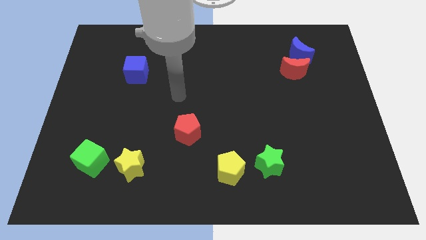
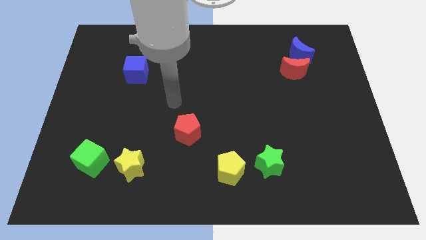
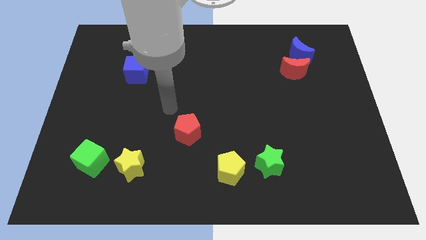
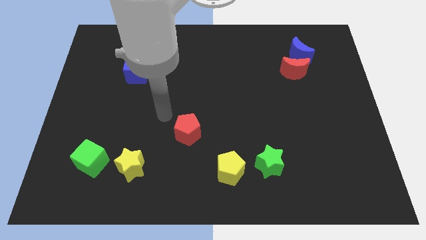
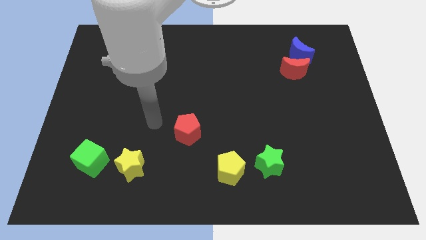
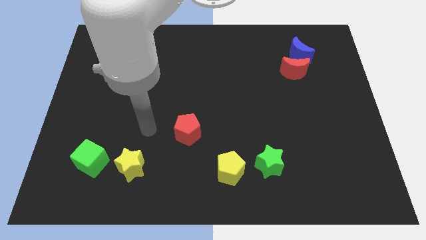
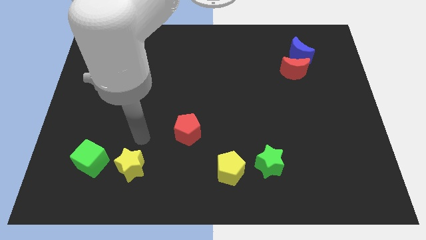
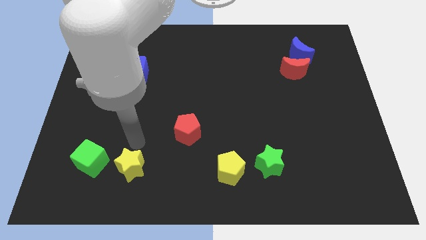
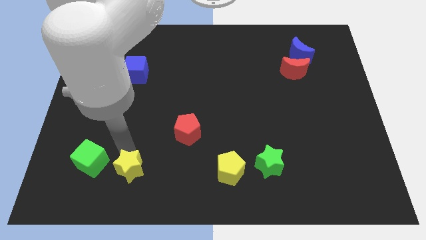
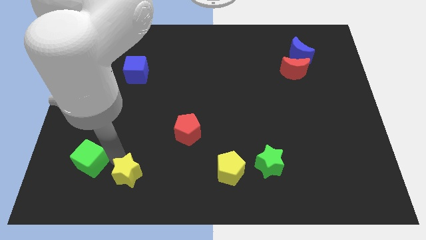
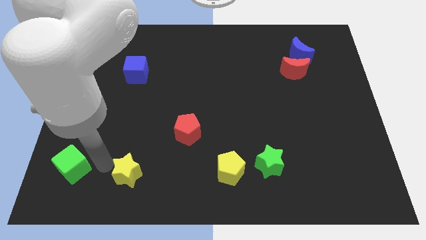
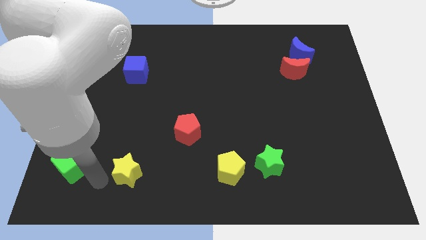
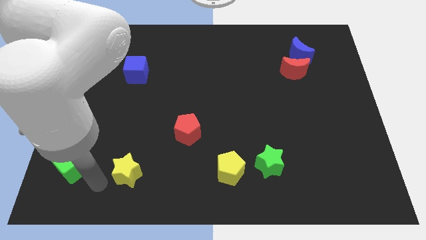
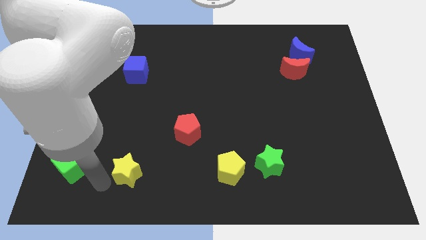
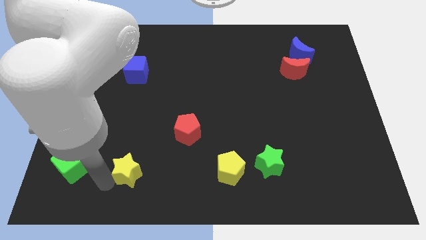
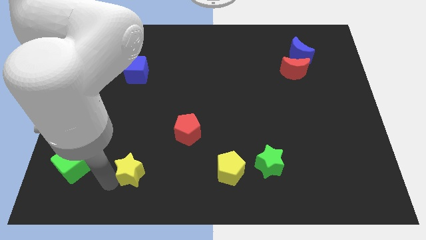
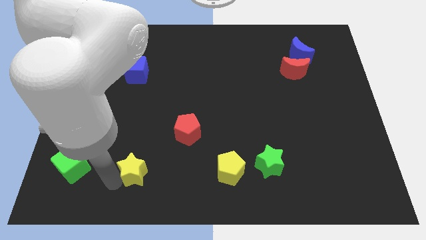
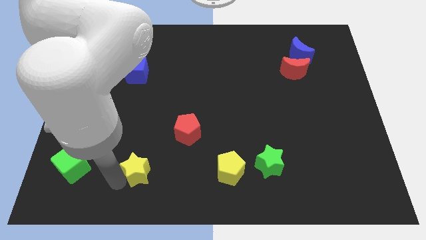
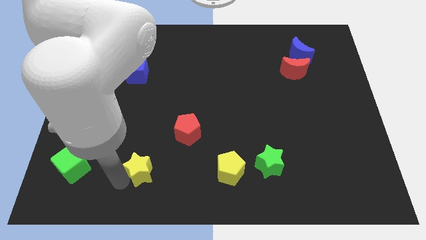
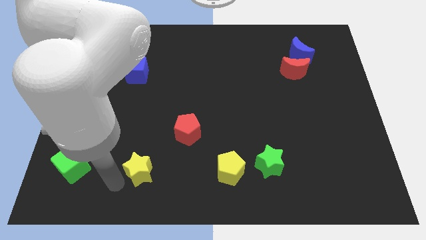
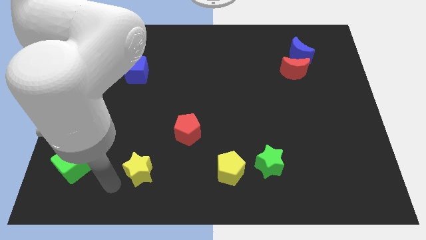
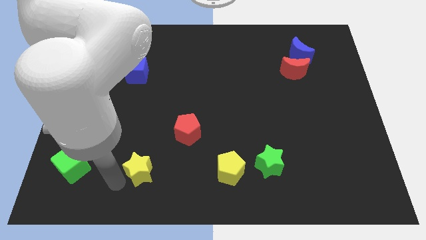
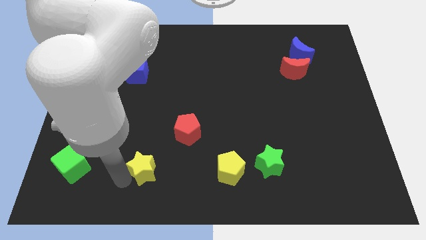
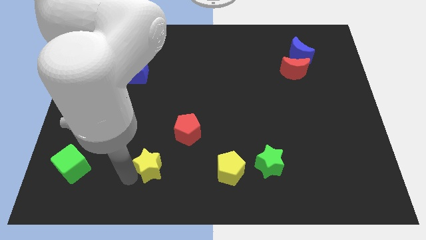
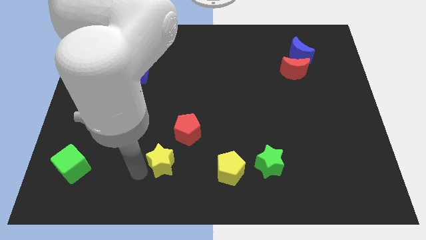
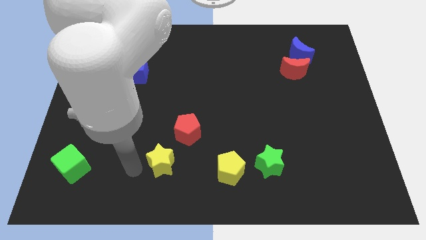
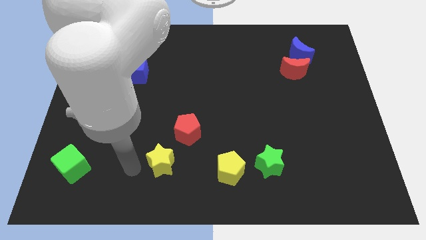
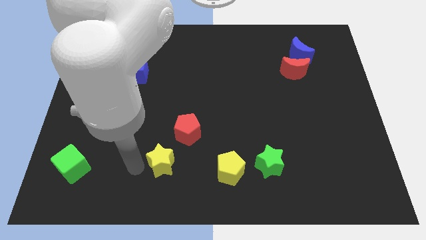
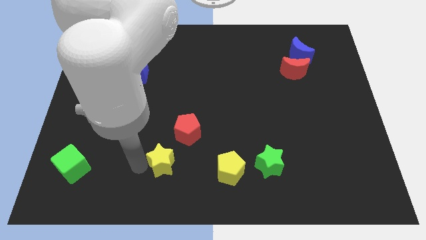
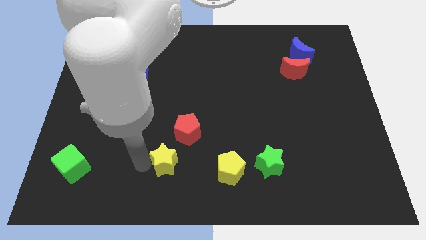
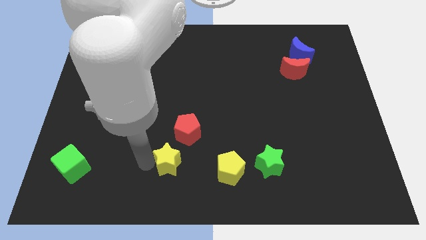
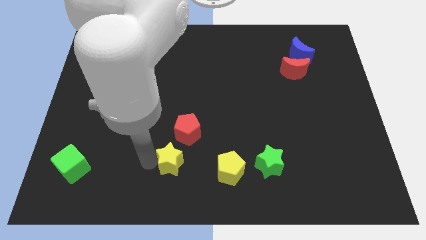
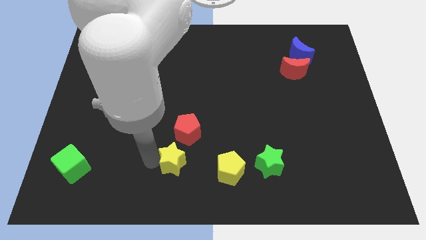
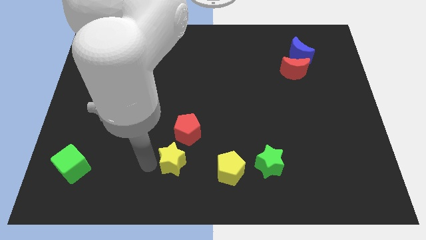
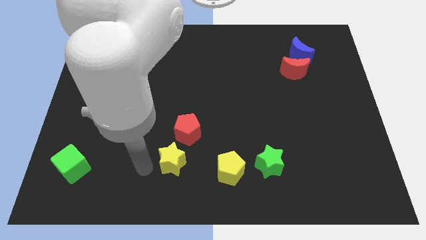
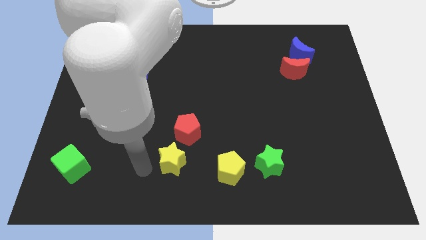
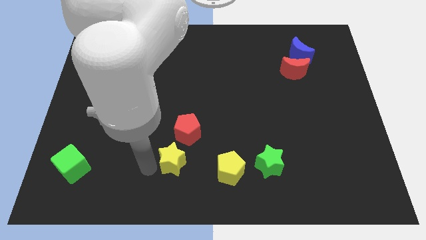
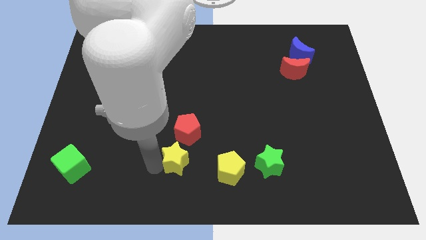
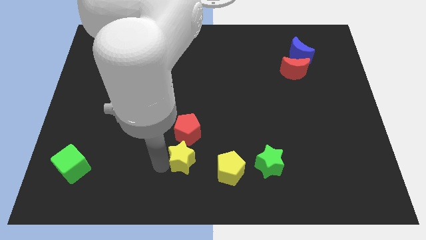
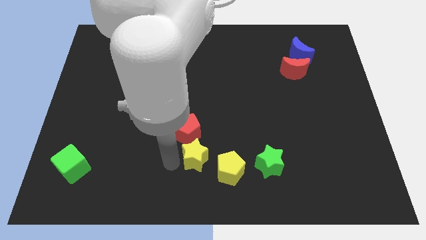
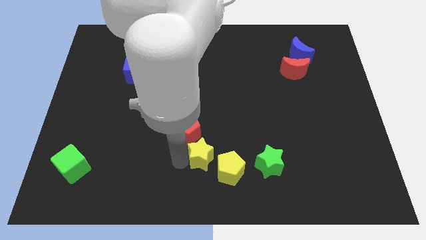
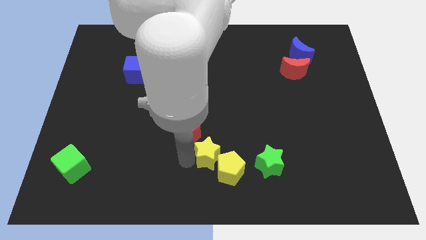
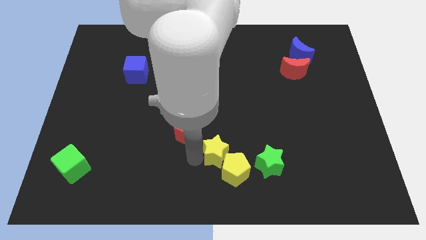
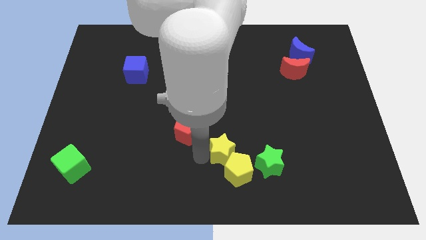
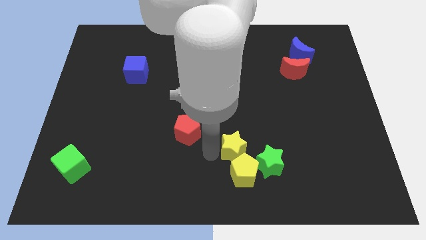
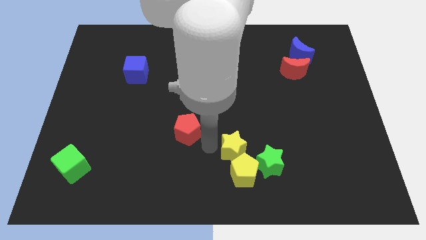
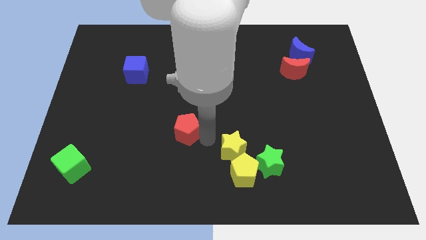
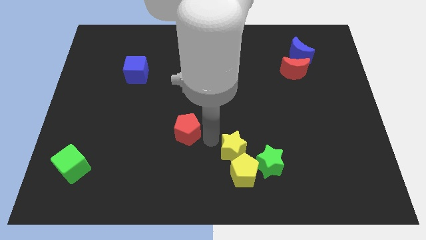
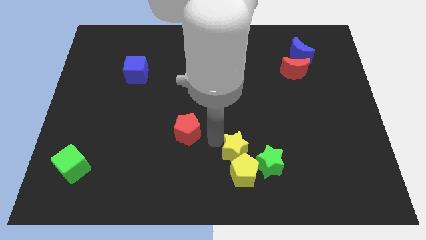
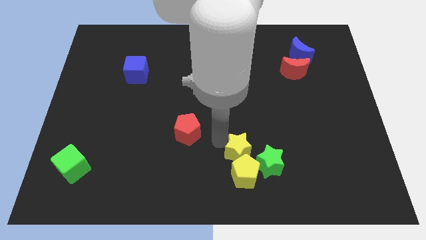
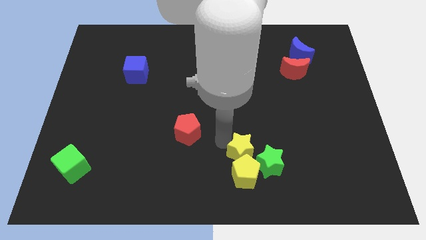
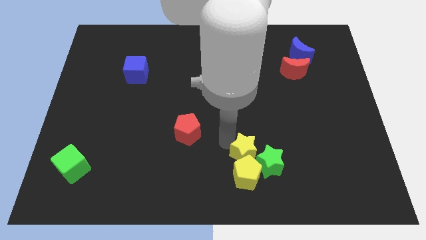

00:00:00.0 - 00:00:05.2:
slide the yellow star next to the green star

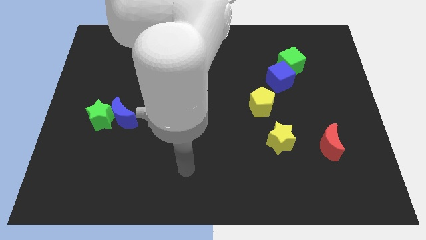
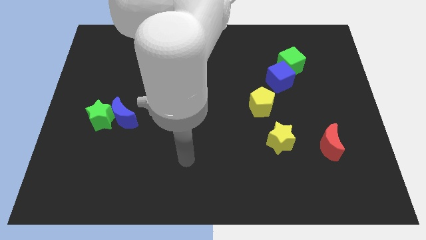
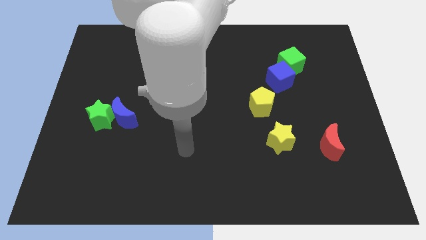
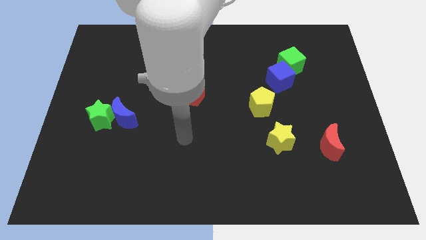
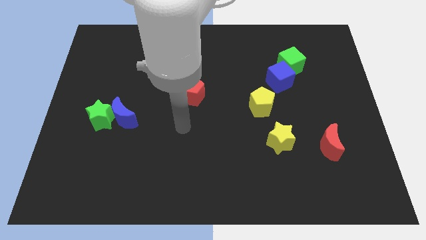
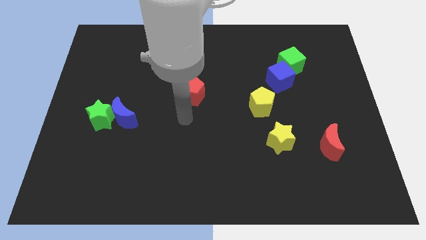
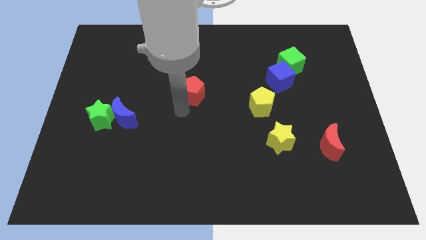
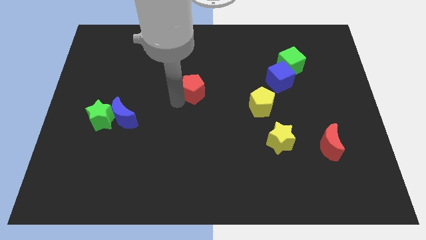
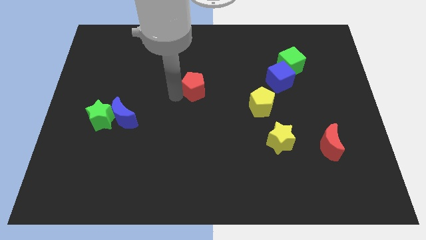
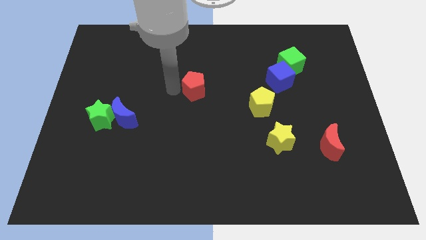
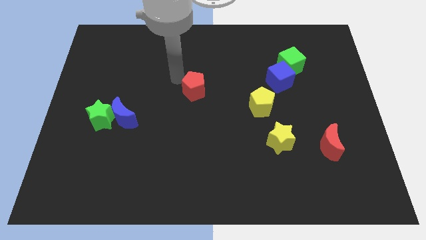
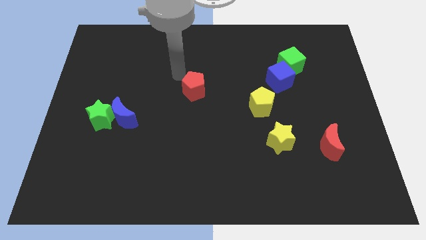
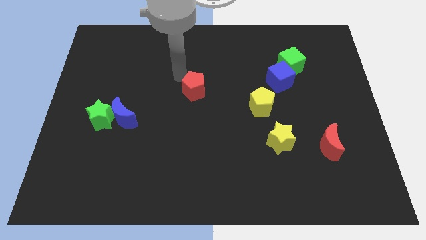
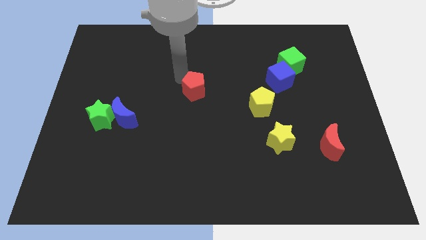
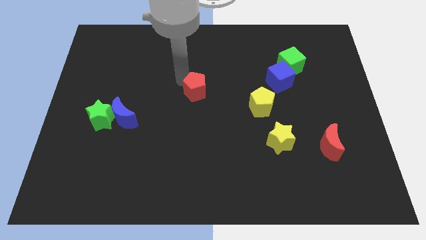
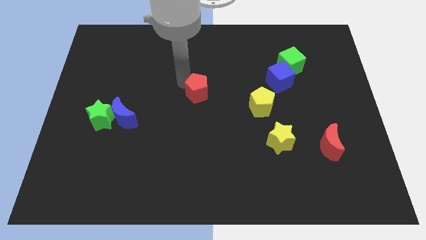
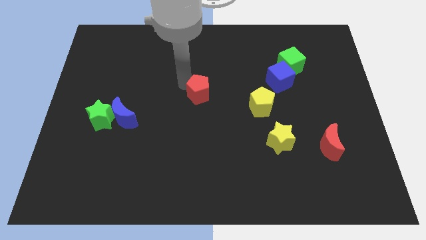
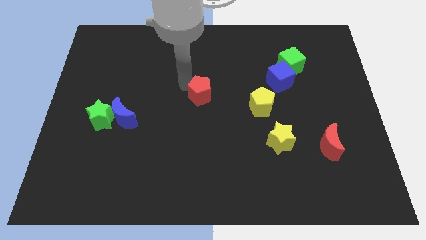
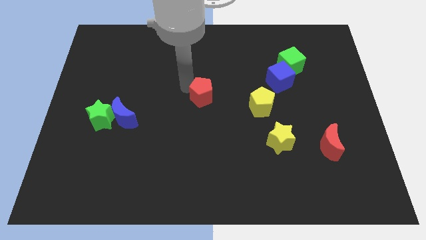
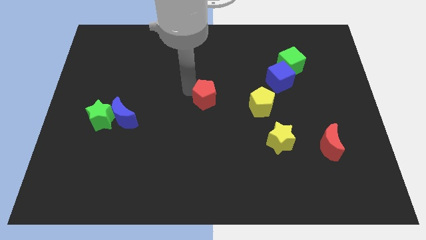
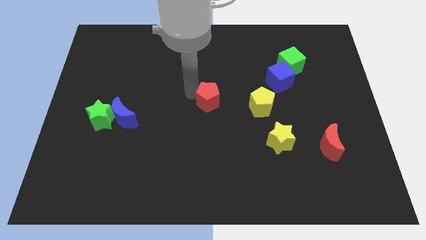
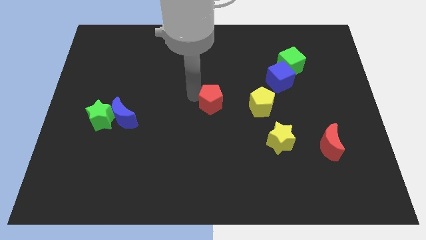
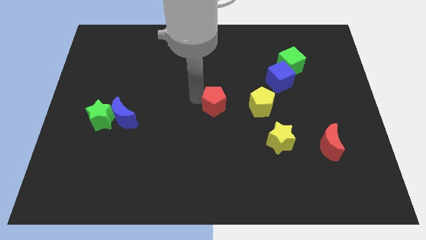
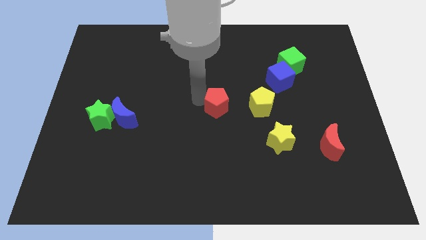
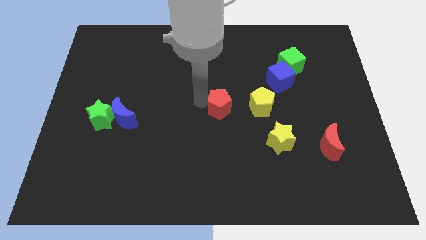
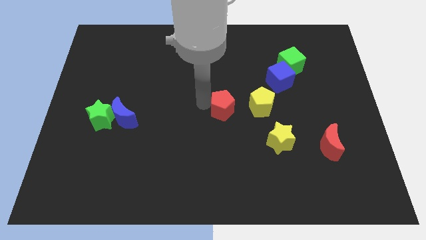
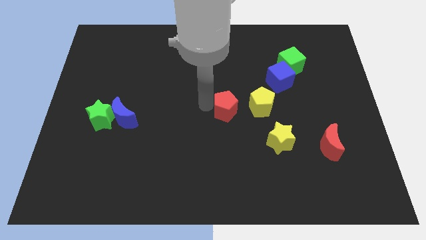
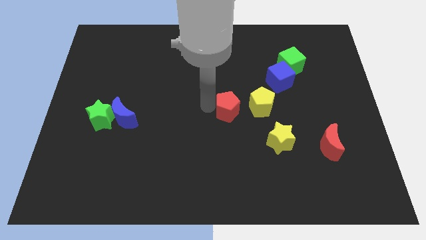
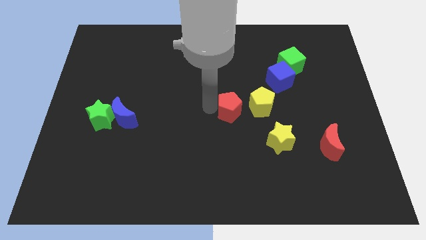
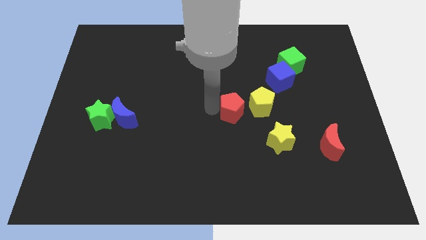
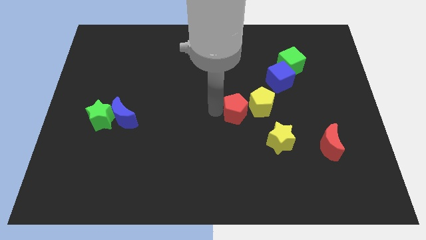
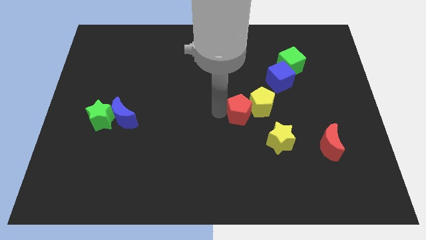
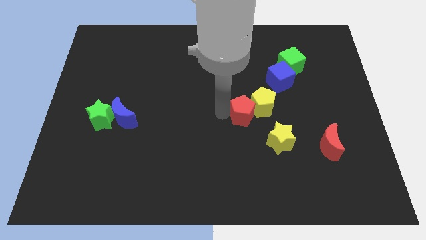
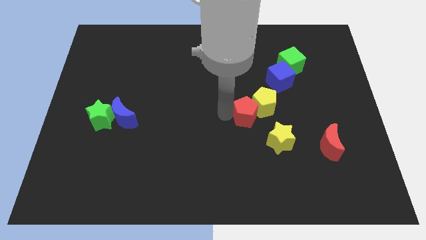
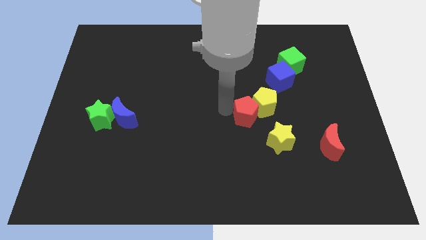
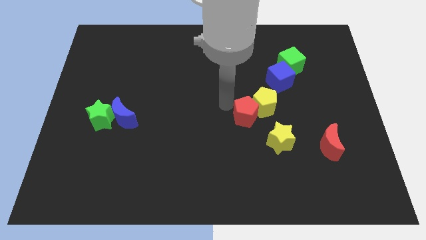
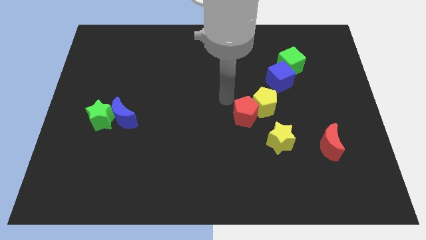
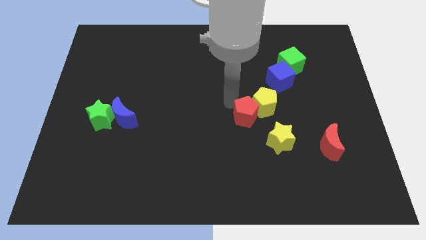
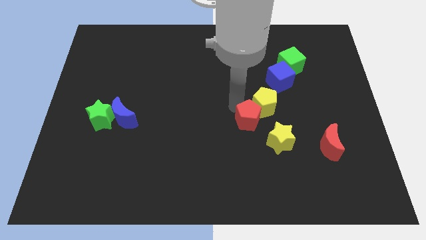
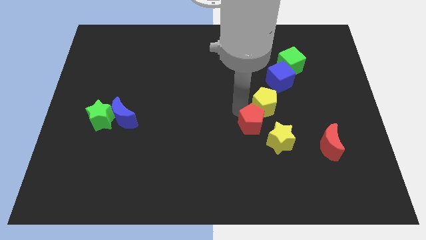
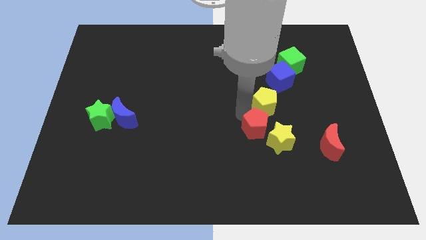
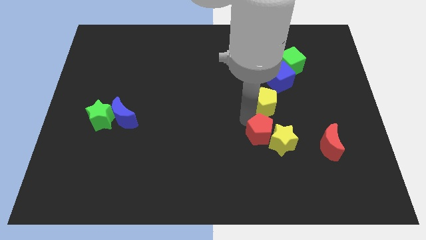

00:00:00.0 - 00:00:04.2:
push the red pentagon next to the yellow star
